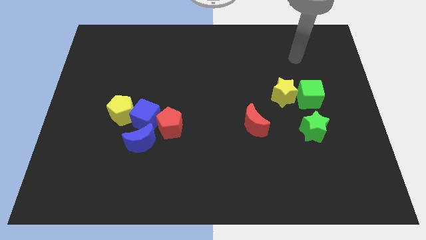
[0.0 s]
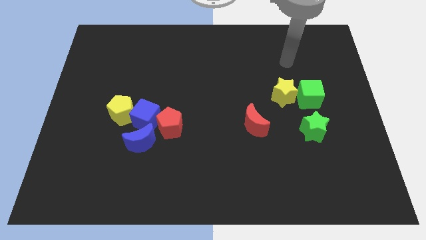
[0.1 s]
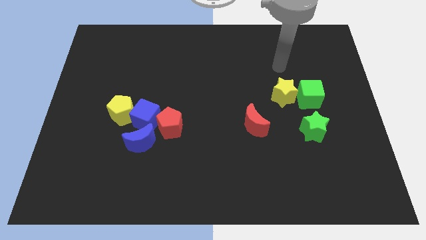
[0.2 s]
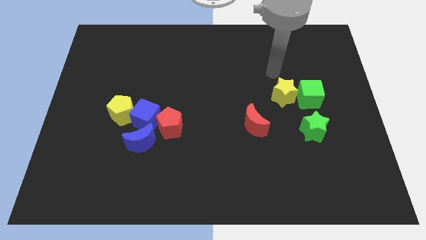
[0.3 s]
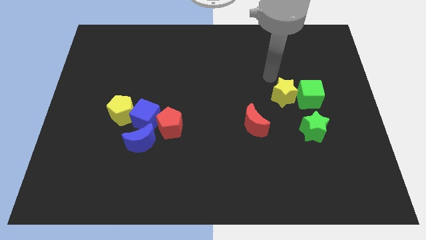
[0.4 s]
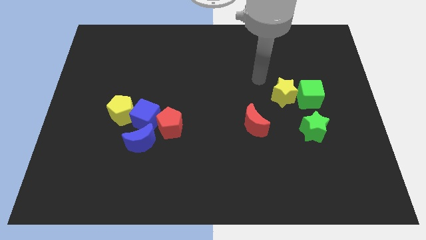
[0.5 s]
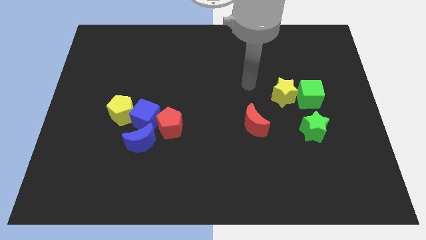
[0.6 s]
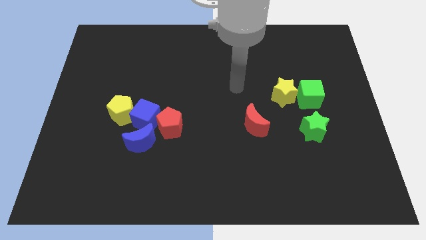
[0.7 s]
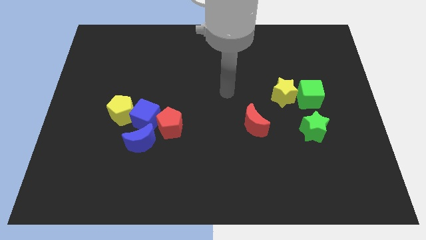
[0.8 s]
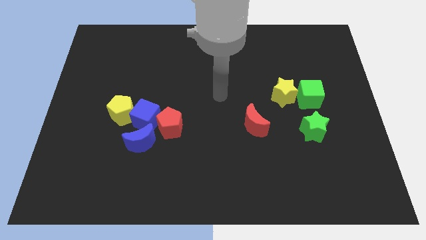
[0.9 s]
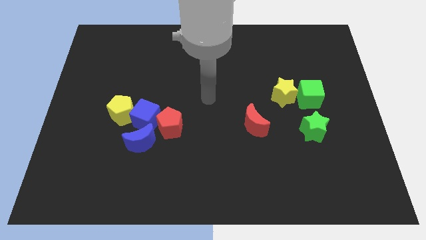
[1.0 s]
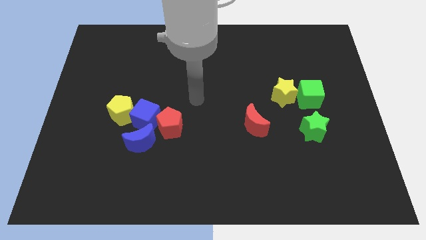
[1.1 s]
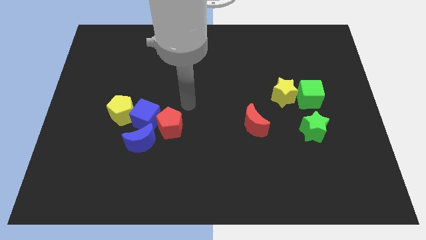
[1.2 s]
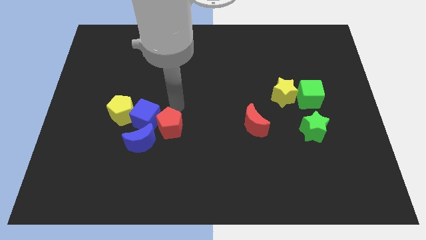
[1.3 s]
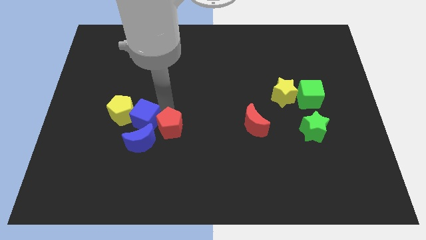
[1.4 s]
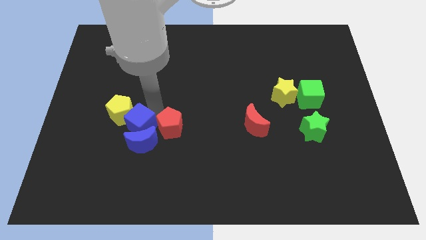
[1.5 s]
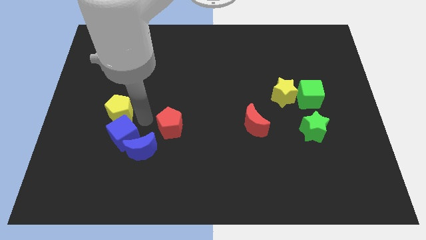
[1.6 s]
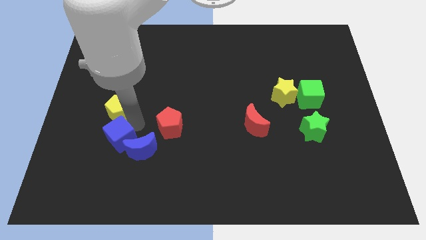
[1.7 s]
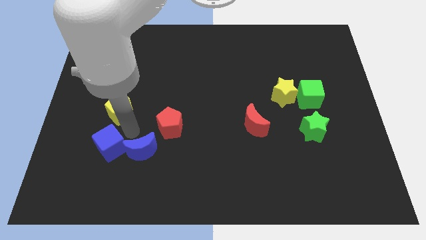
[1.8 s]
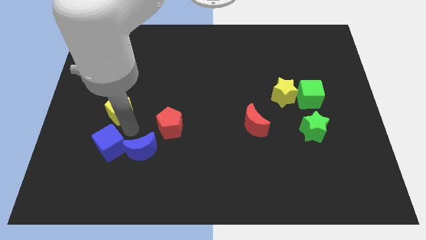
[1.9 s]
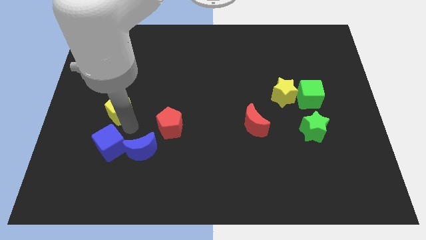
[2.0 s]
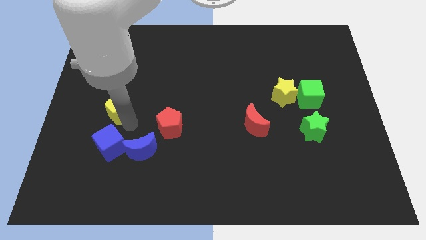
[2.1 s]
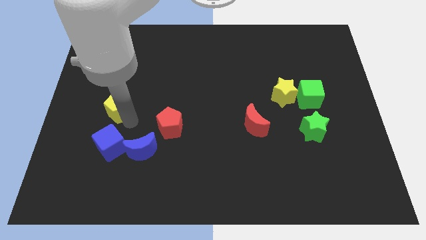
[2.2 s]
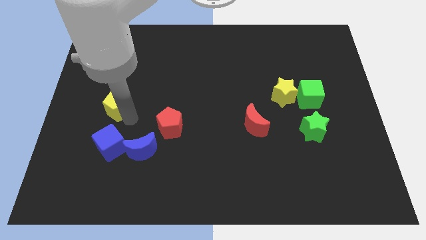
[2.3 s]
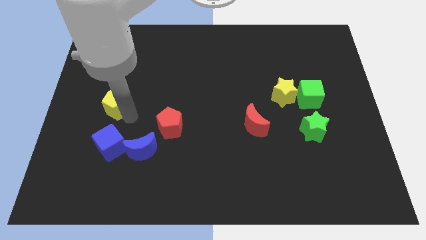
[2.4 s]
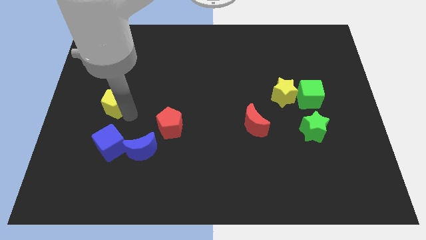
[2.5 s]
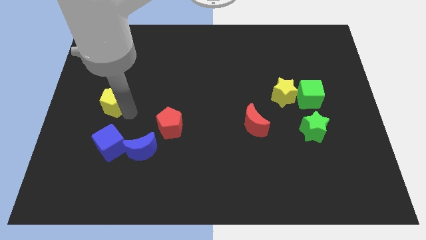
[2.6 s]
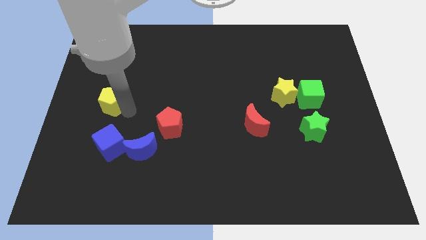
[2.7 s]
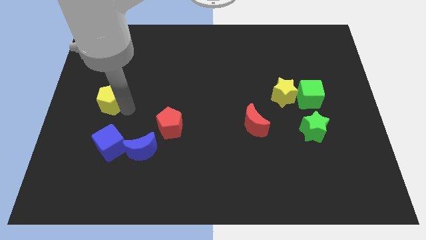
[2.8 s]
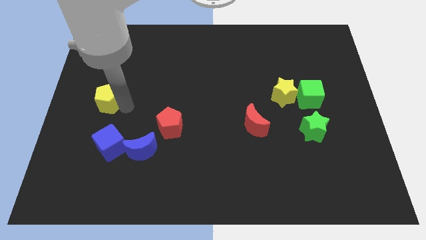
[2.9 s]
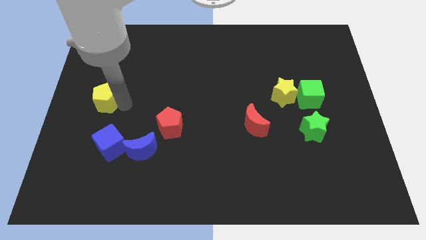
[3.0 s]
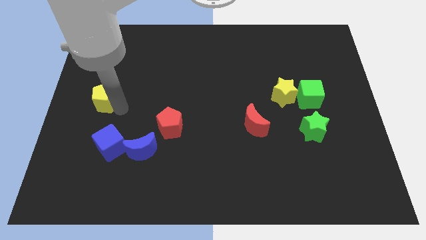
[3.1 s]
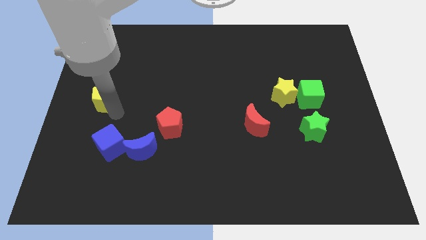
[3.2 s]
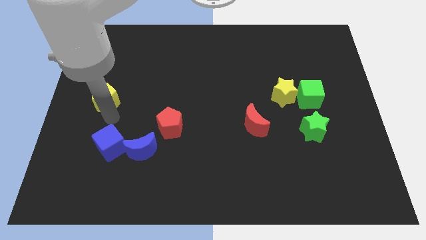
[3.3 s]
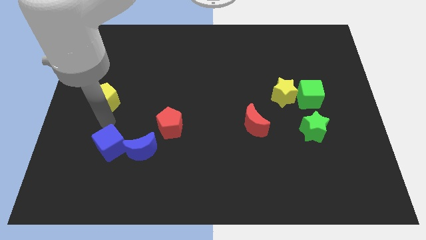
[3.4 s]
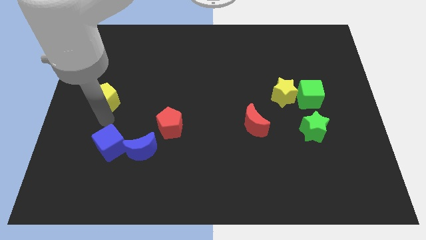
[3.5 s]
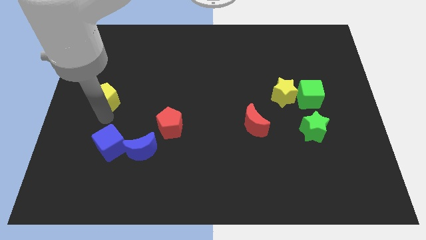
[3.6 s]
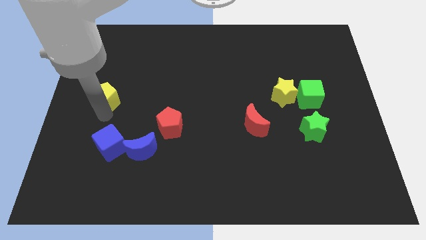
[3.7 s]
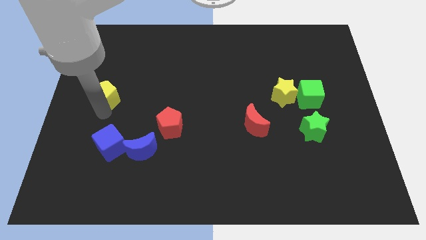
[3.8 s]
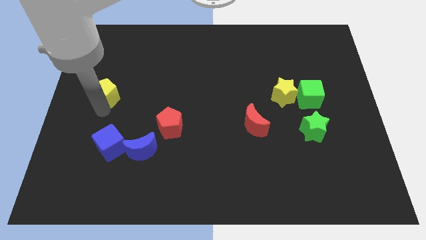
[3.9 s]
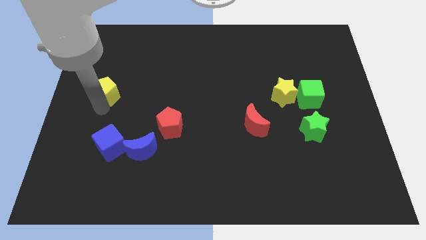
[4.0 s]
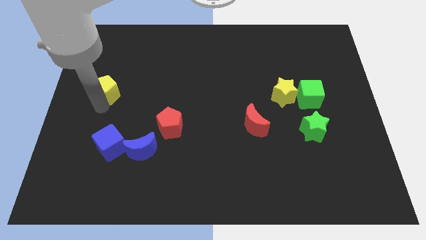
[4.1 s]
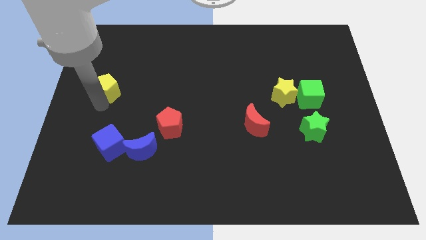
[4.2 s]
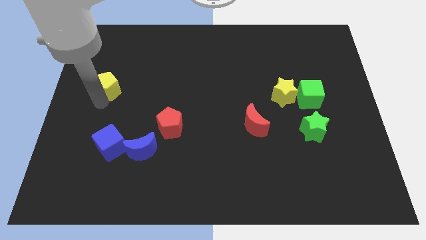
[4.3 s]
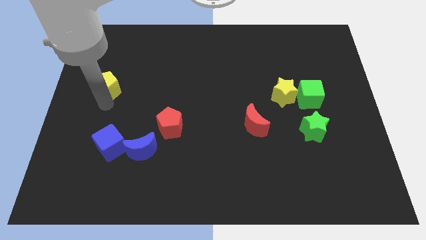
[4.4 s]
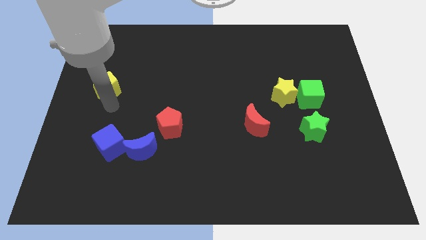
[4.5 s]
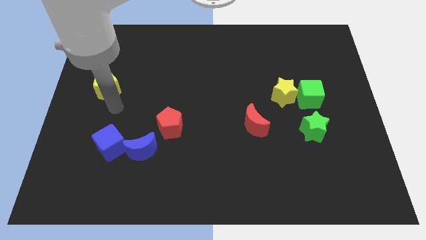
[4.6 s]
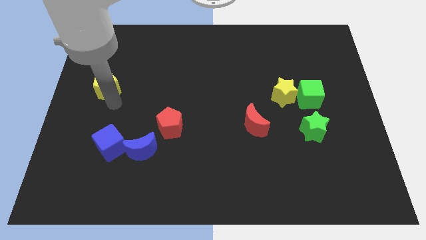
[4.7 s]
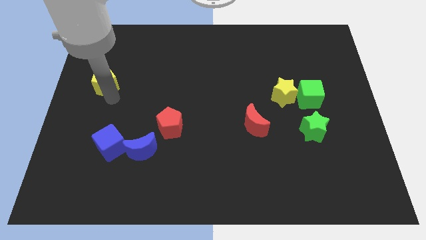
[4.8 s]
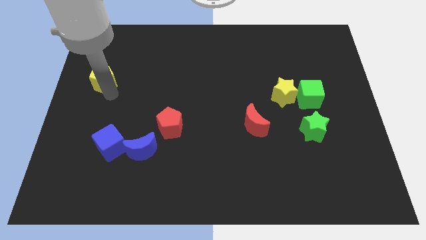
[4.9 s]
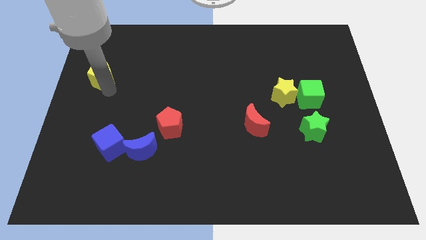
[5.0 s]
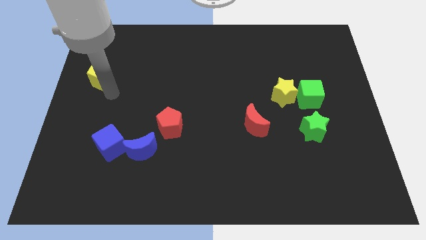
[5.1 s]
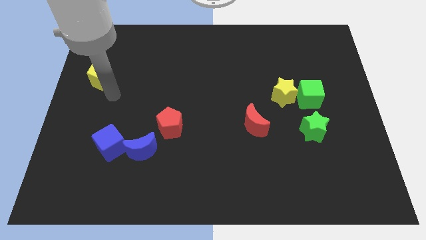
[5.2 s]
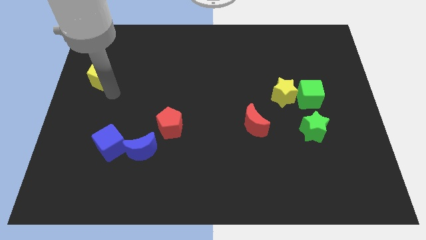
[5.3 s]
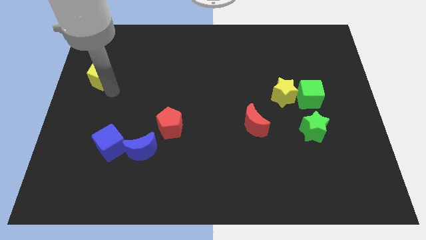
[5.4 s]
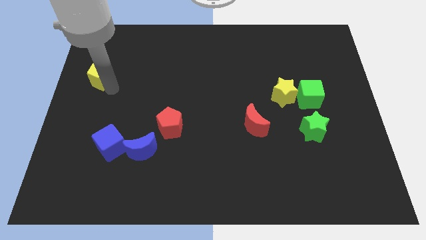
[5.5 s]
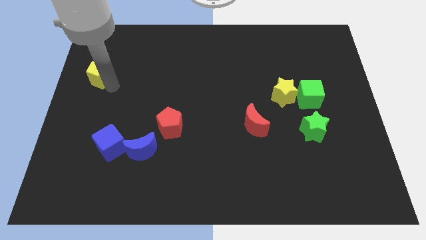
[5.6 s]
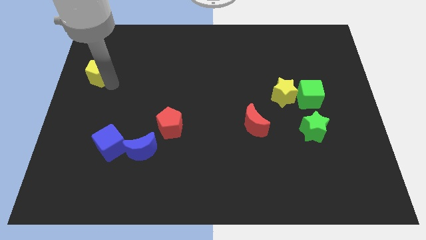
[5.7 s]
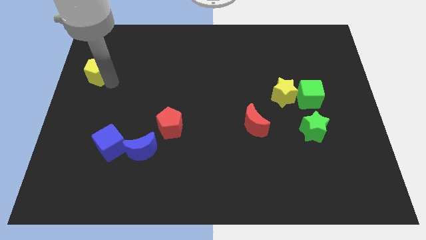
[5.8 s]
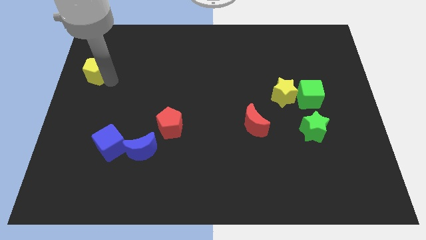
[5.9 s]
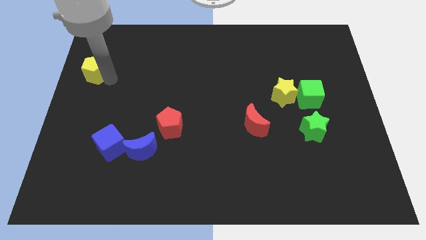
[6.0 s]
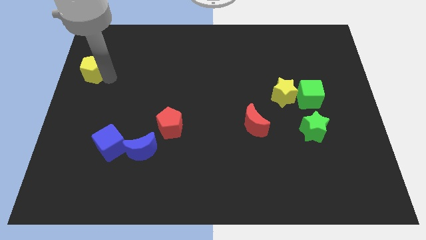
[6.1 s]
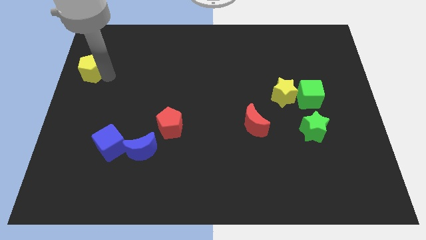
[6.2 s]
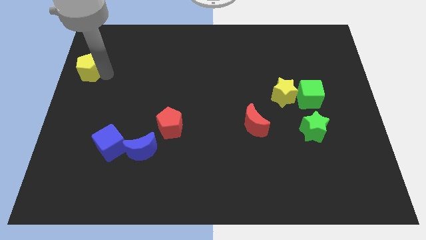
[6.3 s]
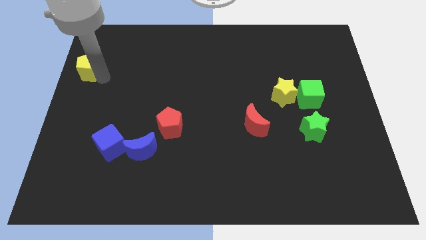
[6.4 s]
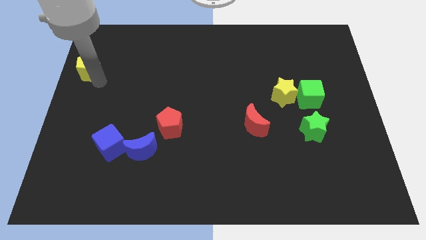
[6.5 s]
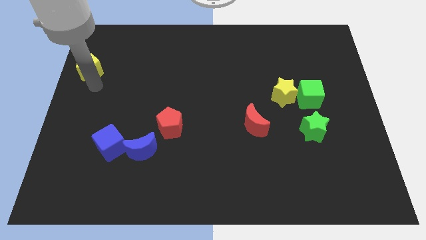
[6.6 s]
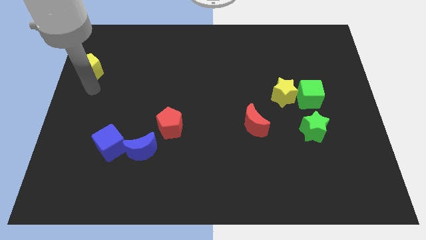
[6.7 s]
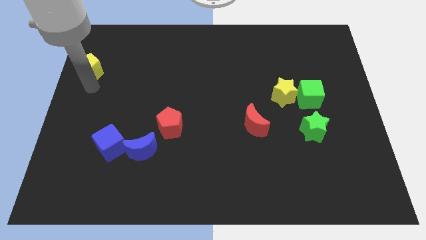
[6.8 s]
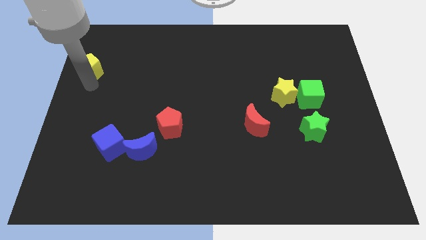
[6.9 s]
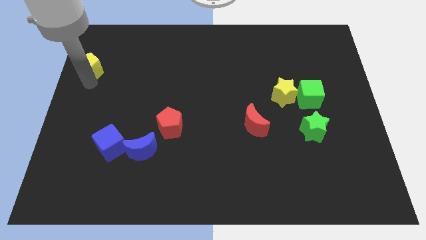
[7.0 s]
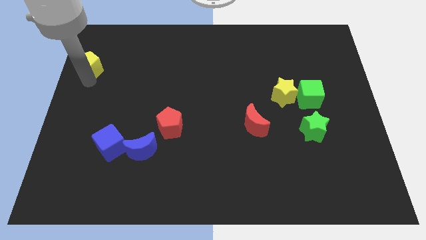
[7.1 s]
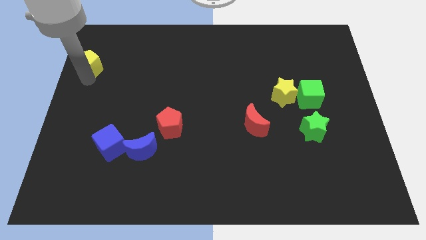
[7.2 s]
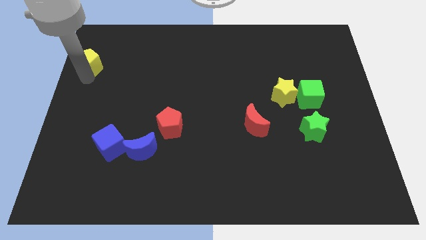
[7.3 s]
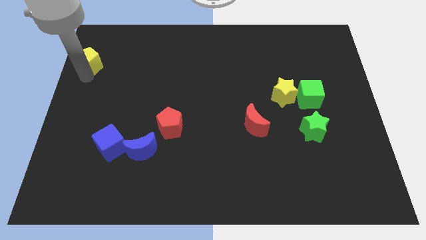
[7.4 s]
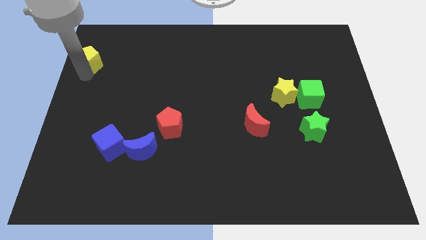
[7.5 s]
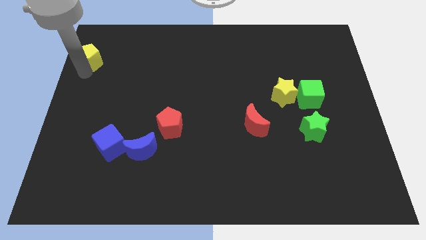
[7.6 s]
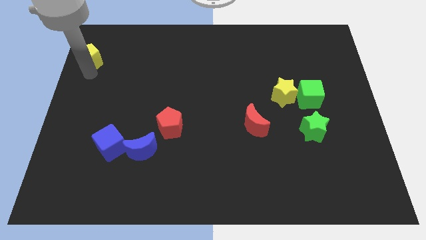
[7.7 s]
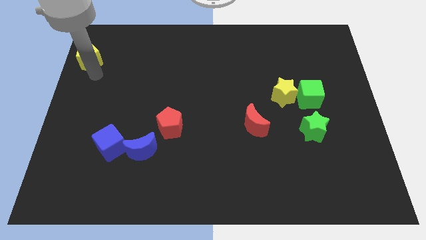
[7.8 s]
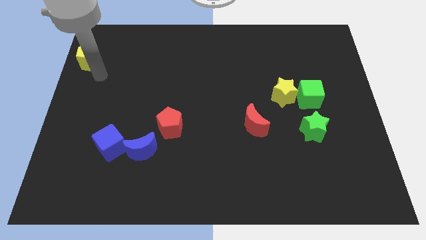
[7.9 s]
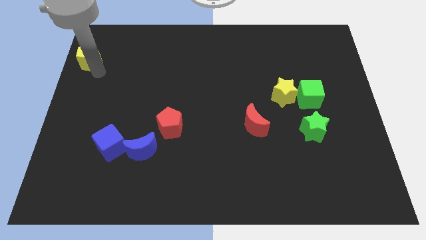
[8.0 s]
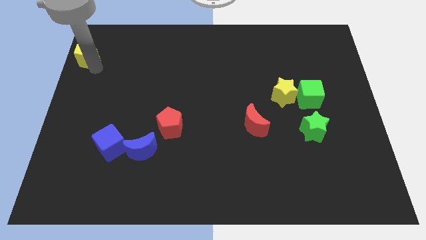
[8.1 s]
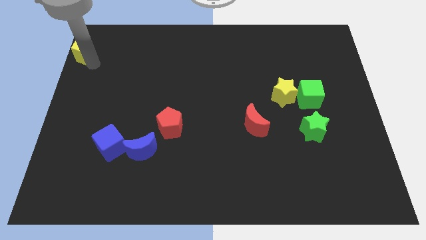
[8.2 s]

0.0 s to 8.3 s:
push the yellow pentagon to the top left of the board
